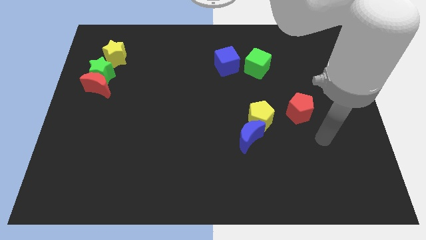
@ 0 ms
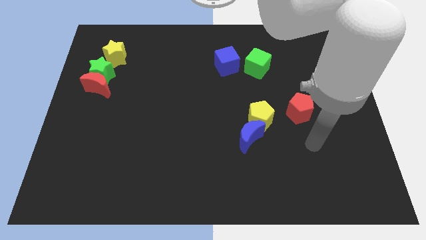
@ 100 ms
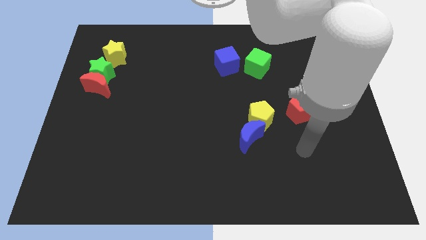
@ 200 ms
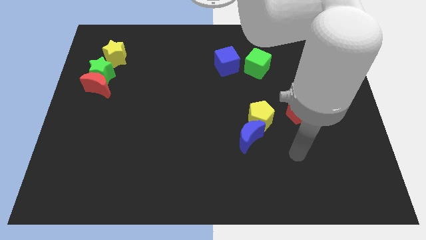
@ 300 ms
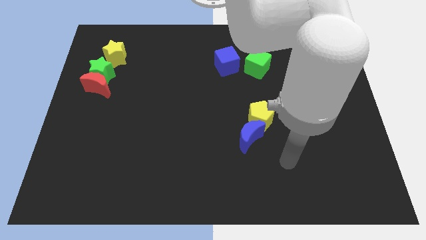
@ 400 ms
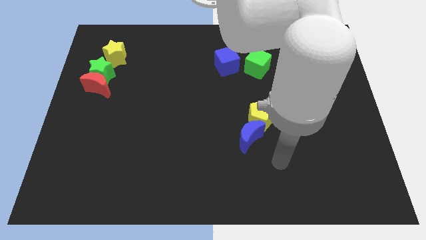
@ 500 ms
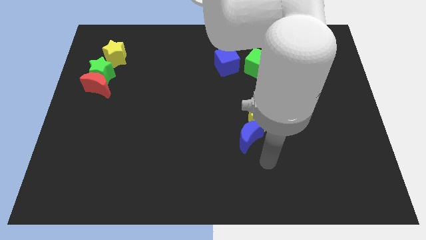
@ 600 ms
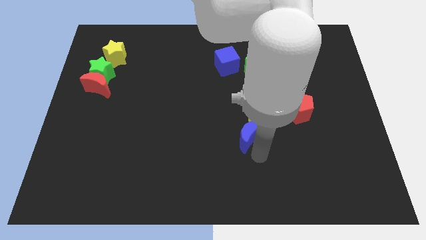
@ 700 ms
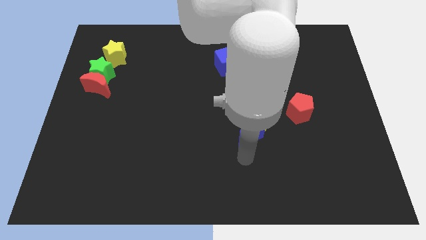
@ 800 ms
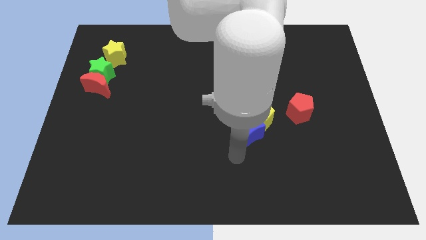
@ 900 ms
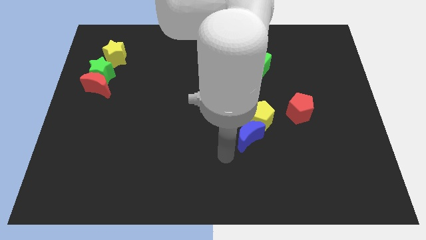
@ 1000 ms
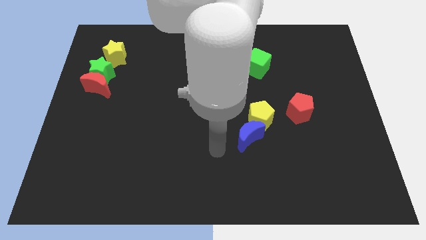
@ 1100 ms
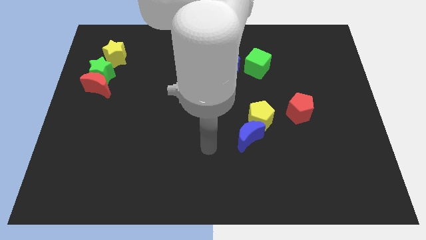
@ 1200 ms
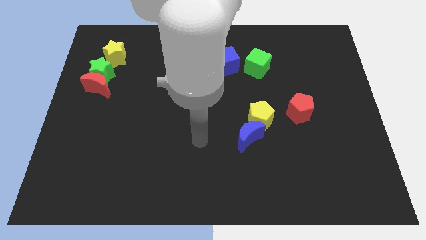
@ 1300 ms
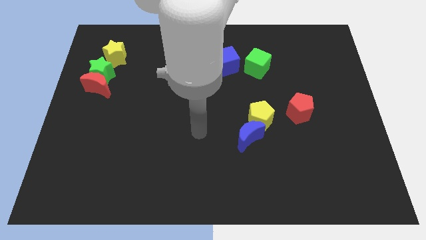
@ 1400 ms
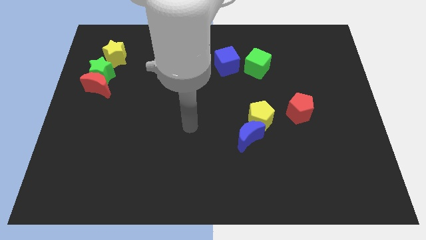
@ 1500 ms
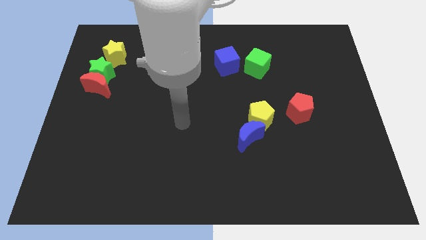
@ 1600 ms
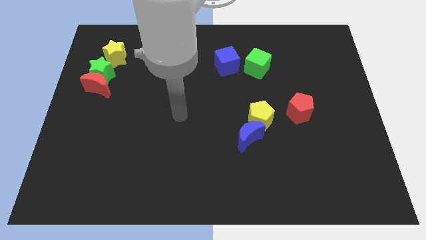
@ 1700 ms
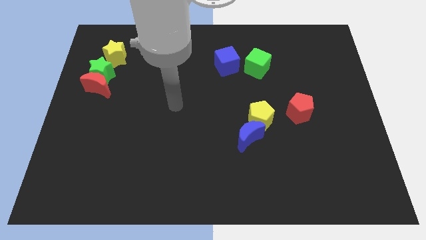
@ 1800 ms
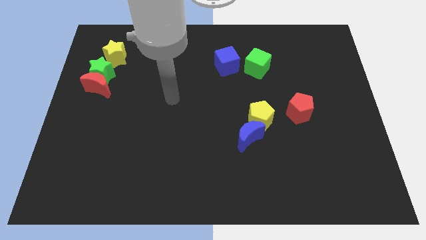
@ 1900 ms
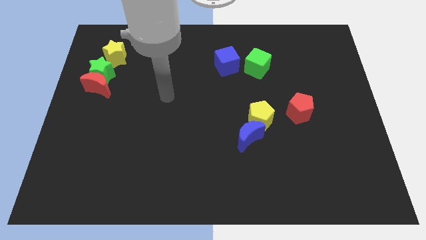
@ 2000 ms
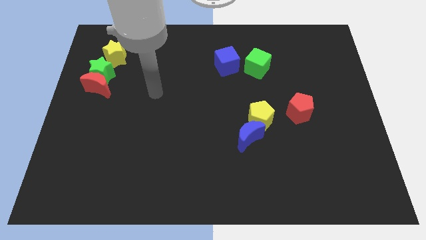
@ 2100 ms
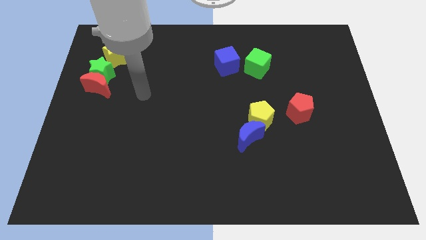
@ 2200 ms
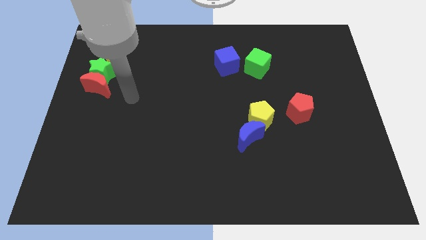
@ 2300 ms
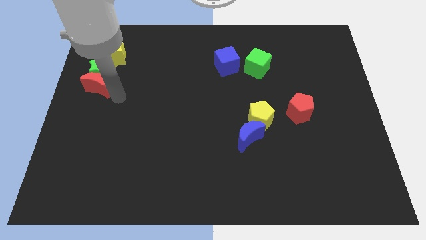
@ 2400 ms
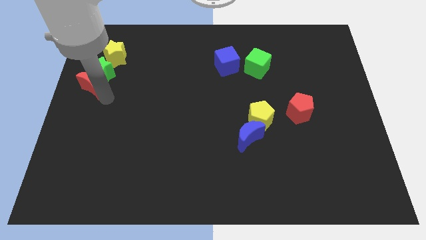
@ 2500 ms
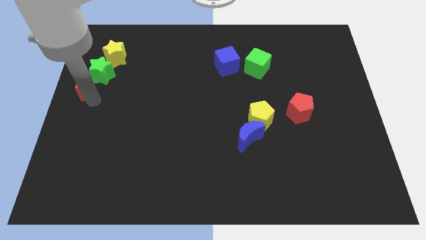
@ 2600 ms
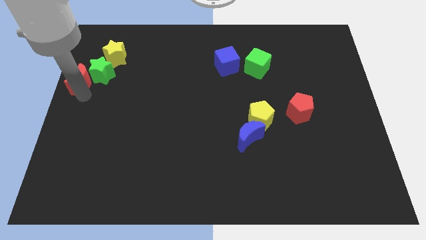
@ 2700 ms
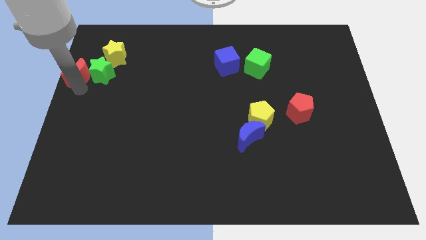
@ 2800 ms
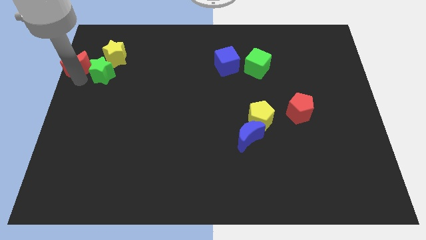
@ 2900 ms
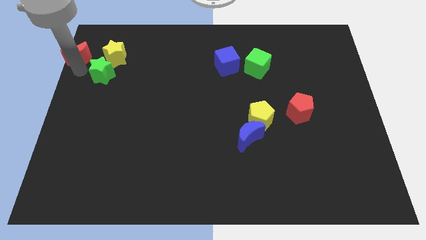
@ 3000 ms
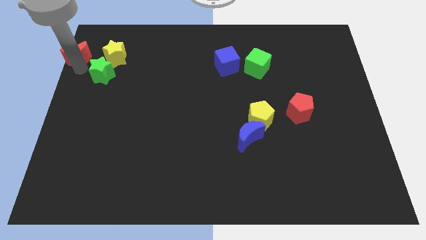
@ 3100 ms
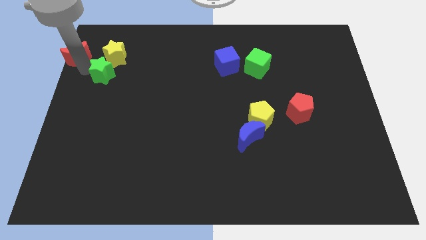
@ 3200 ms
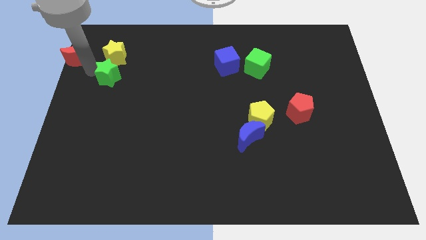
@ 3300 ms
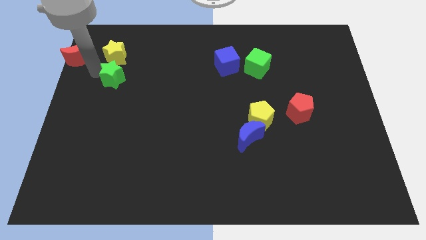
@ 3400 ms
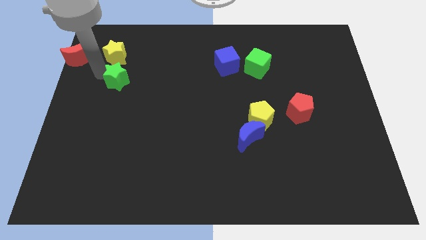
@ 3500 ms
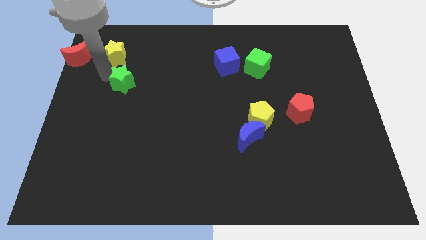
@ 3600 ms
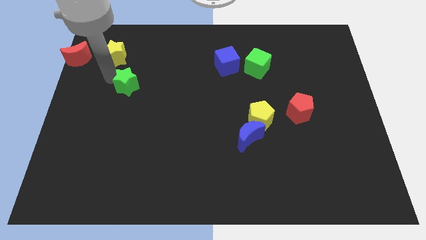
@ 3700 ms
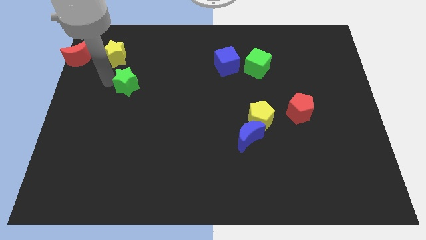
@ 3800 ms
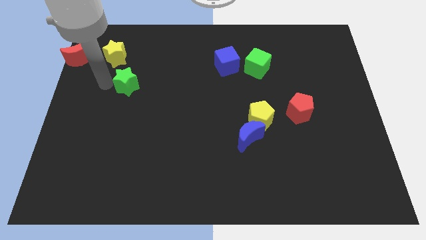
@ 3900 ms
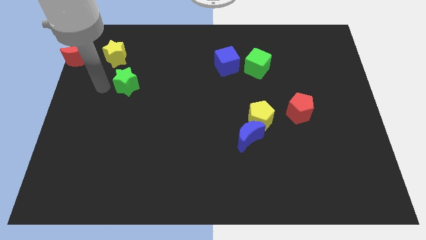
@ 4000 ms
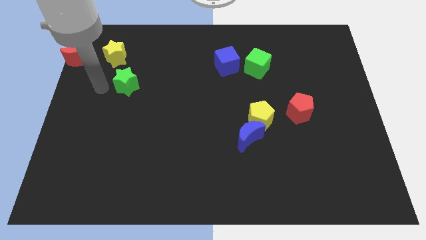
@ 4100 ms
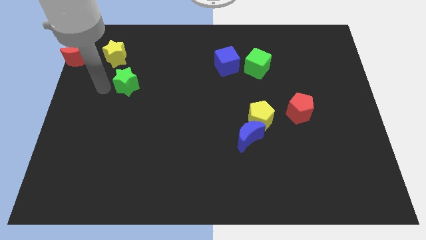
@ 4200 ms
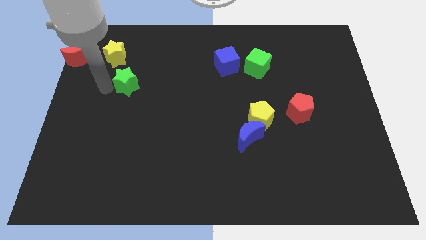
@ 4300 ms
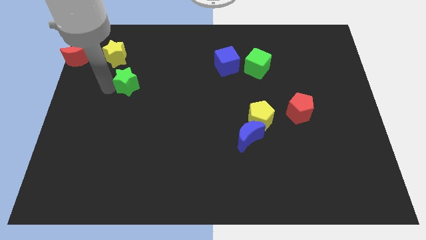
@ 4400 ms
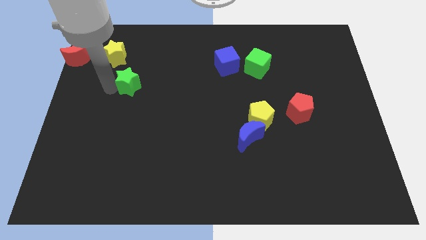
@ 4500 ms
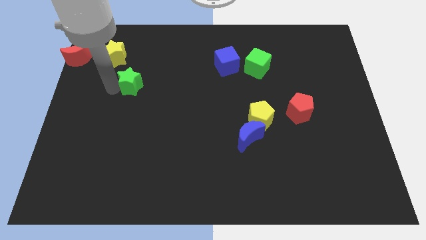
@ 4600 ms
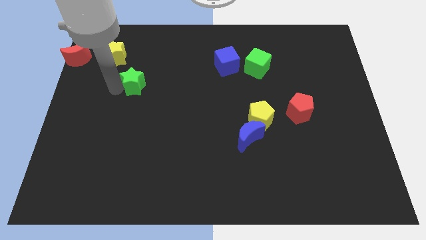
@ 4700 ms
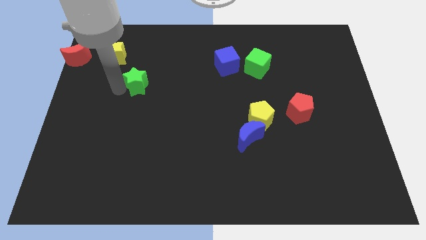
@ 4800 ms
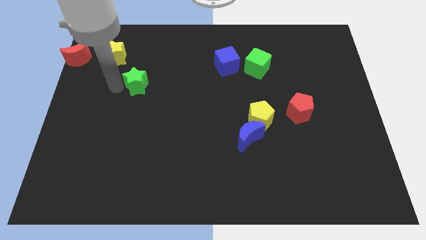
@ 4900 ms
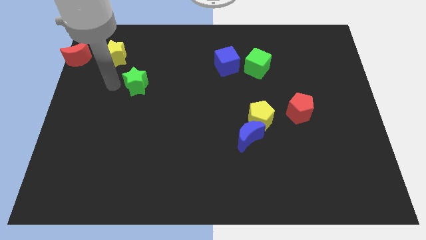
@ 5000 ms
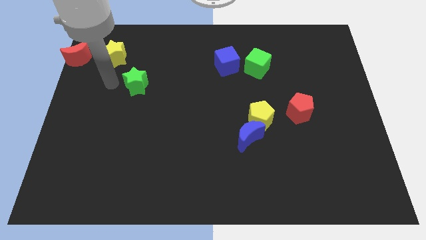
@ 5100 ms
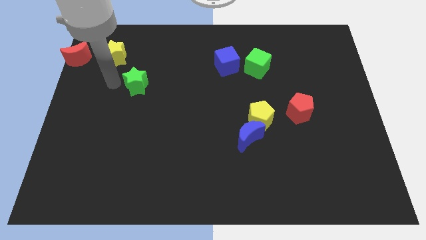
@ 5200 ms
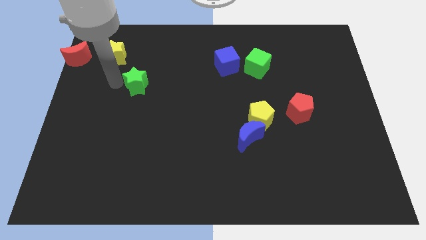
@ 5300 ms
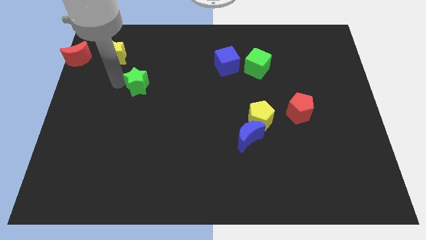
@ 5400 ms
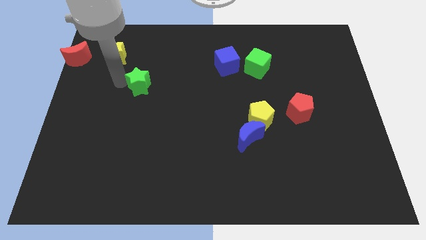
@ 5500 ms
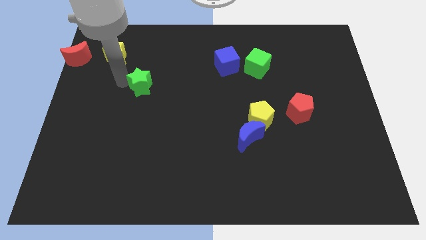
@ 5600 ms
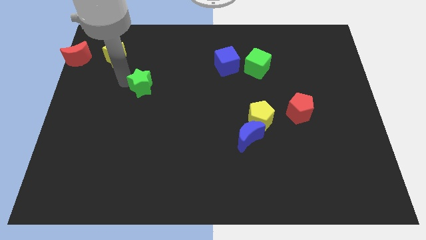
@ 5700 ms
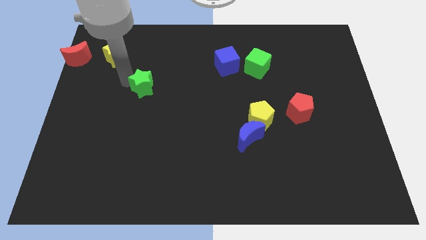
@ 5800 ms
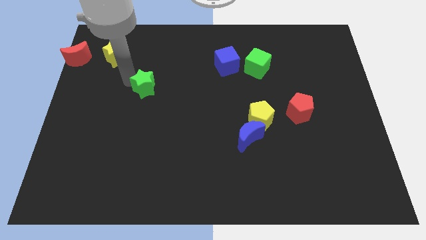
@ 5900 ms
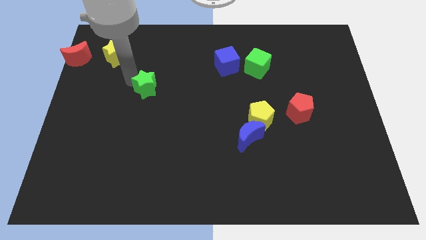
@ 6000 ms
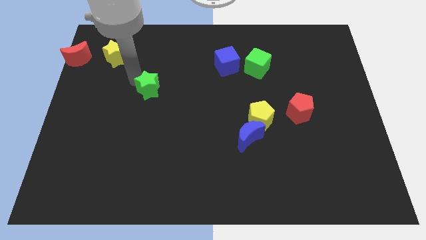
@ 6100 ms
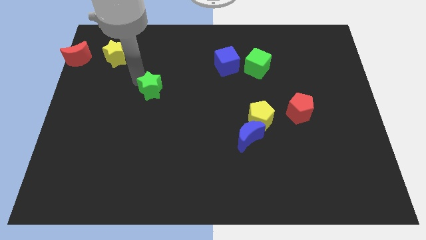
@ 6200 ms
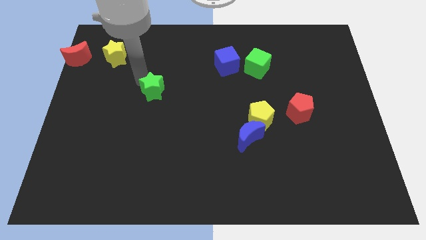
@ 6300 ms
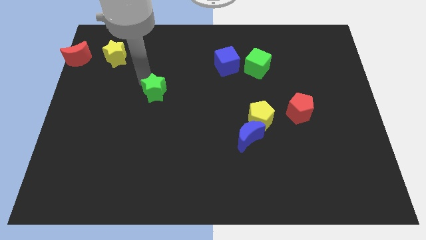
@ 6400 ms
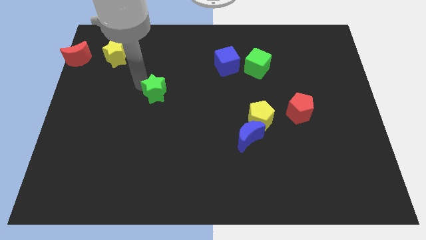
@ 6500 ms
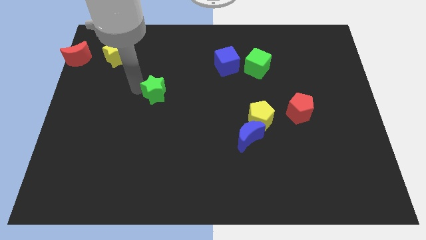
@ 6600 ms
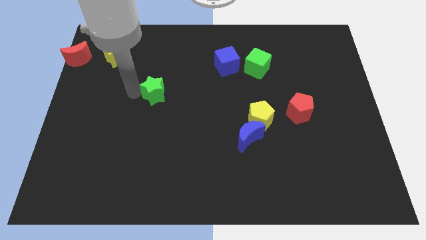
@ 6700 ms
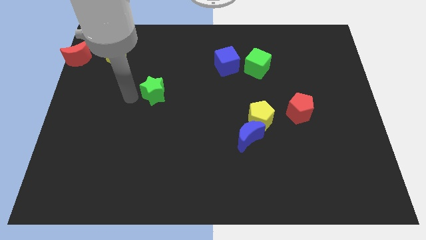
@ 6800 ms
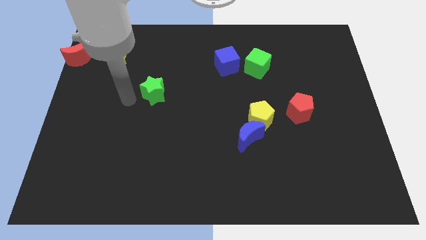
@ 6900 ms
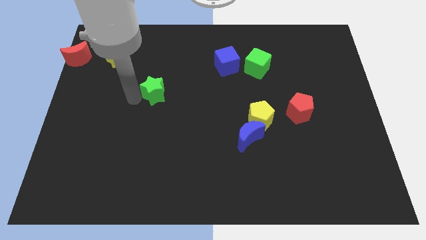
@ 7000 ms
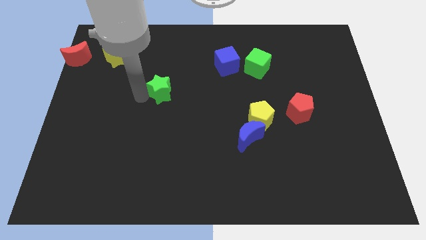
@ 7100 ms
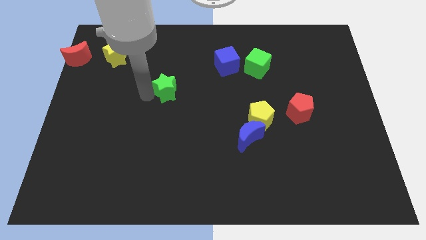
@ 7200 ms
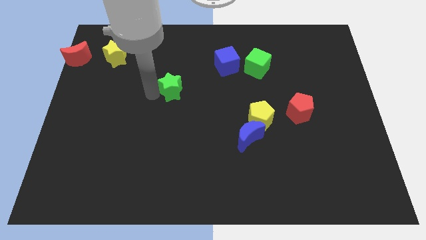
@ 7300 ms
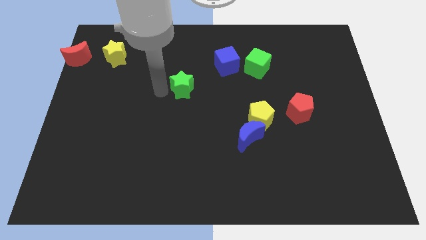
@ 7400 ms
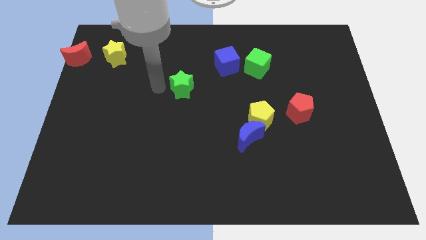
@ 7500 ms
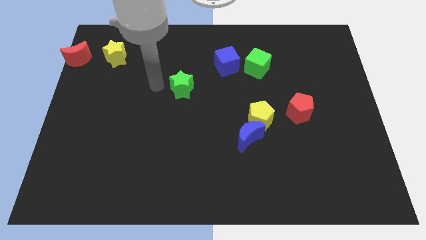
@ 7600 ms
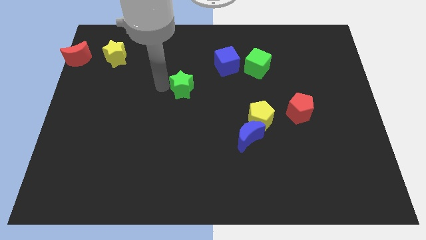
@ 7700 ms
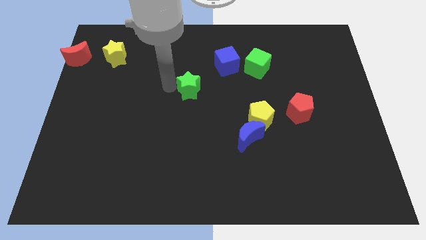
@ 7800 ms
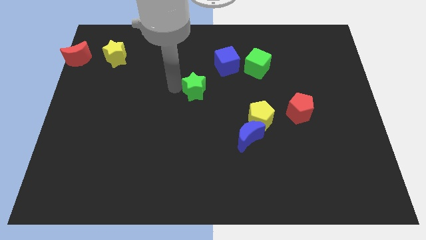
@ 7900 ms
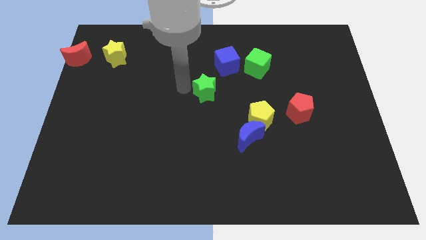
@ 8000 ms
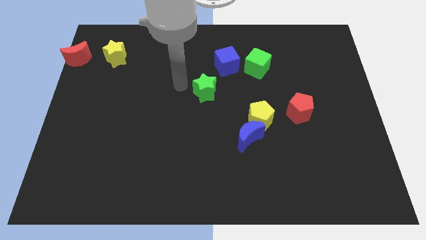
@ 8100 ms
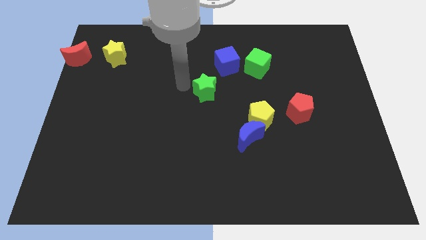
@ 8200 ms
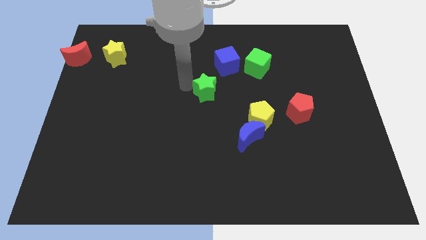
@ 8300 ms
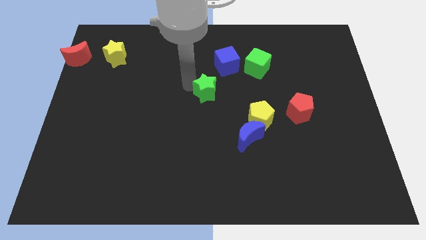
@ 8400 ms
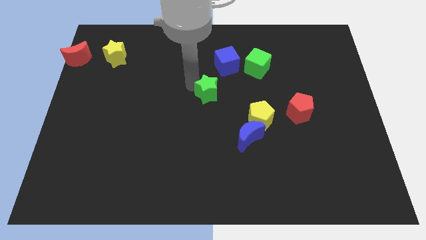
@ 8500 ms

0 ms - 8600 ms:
move the green star to the bottom of the blue cube
